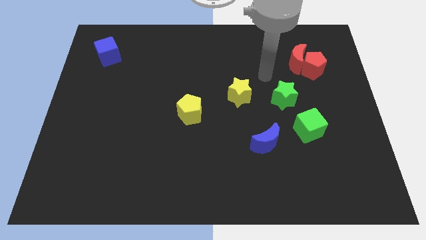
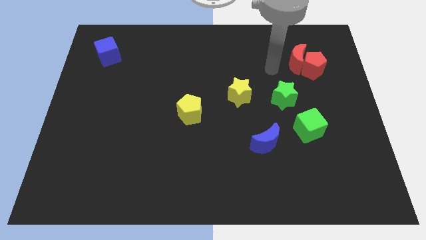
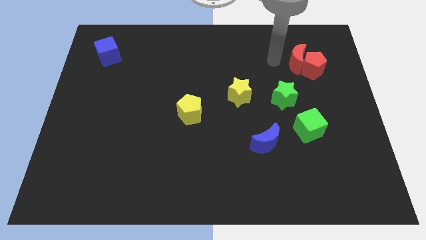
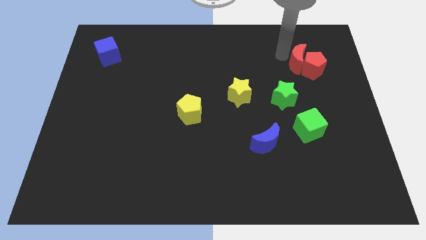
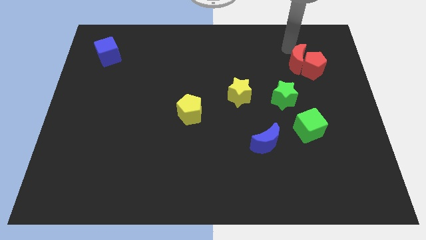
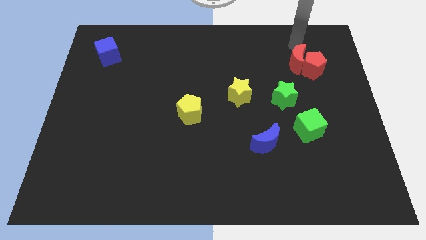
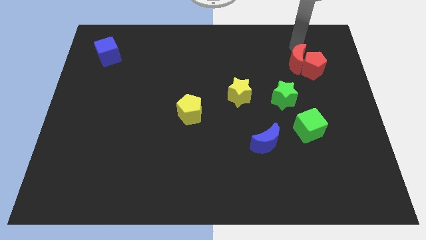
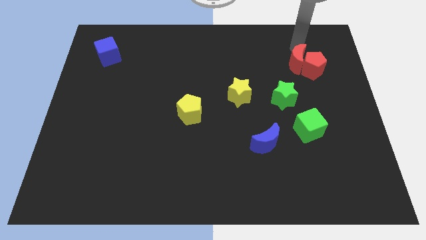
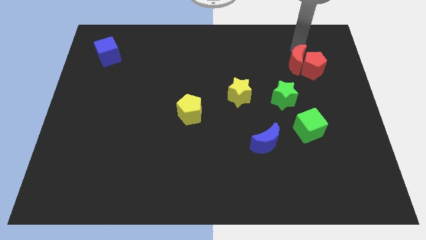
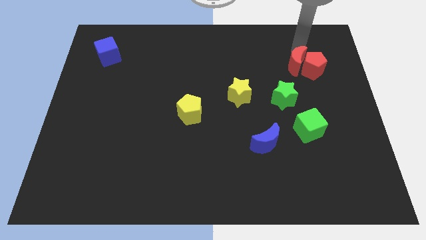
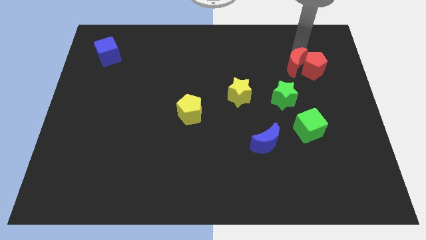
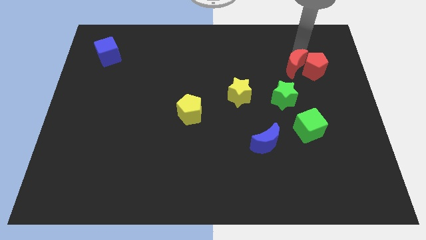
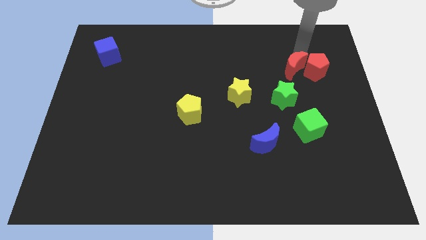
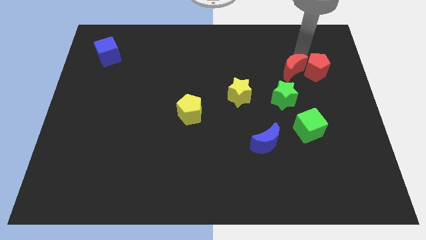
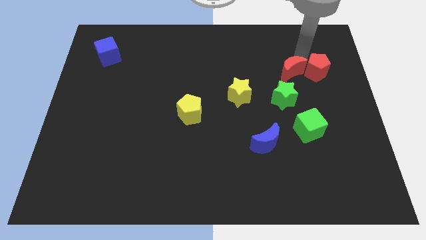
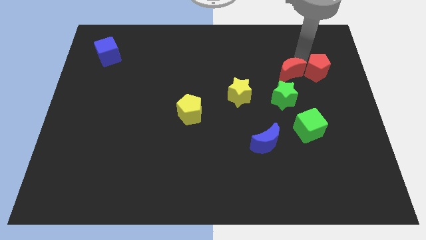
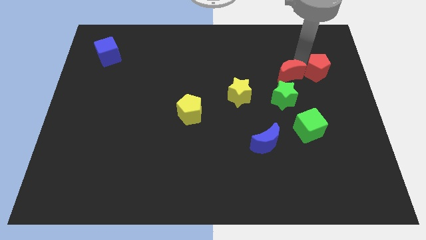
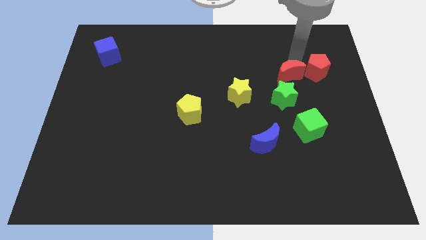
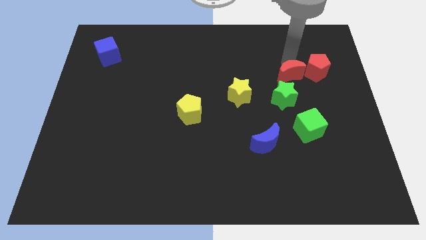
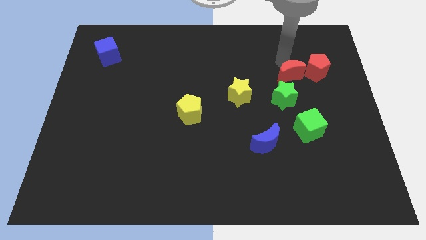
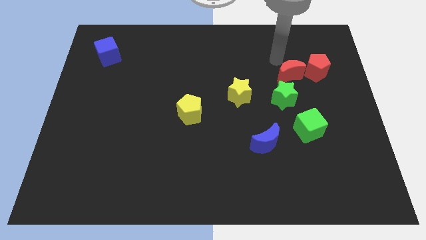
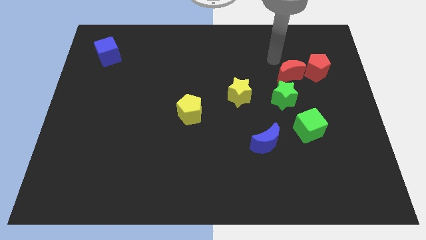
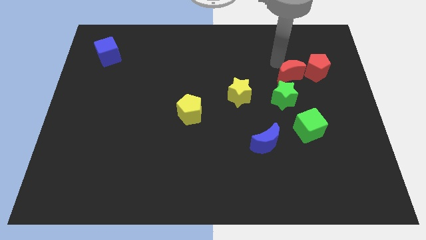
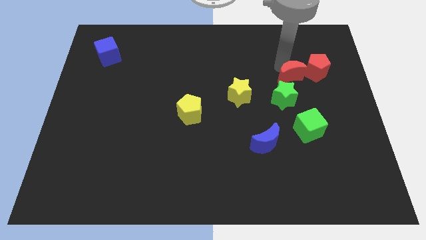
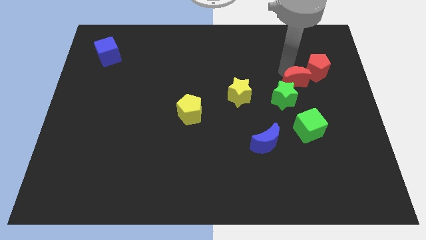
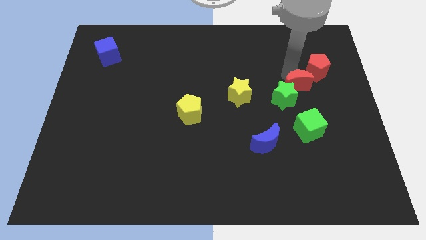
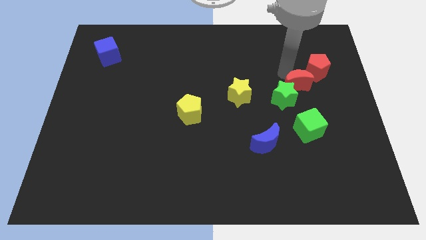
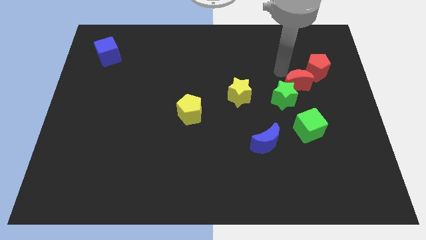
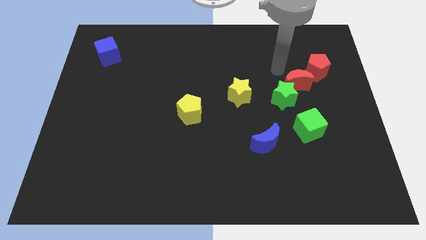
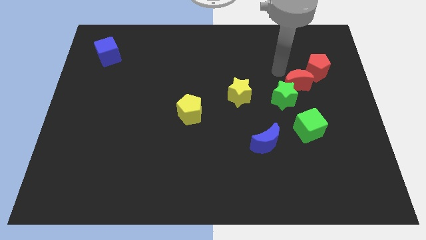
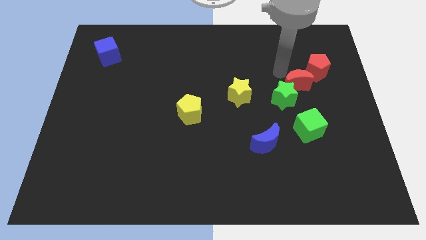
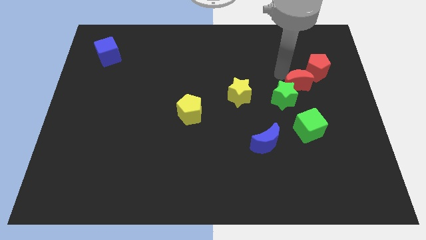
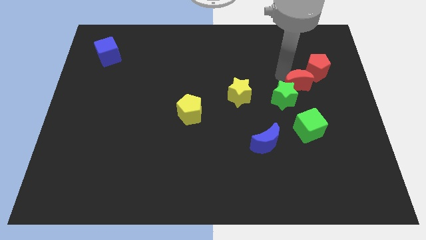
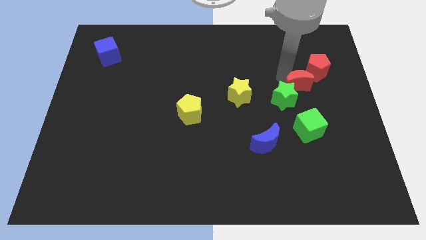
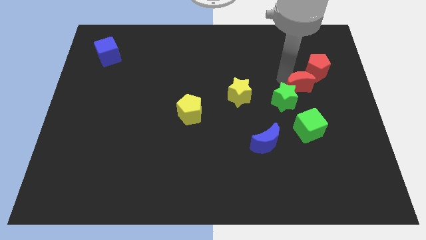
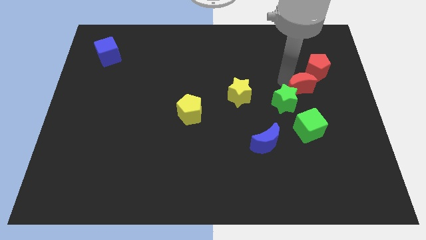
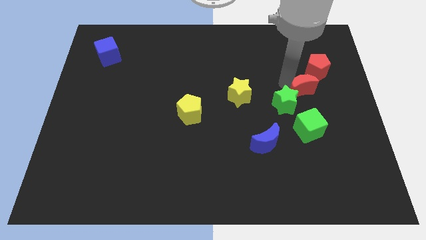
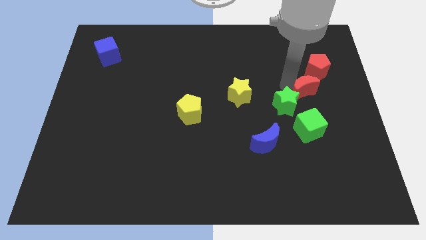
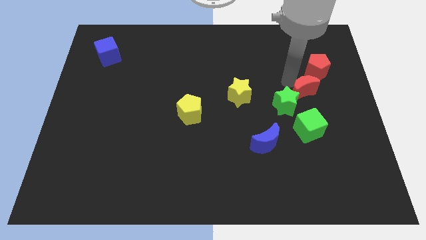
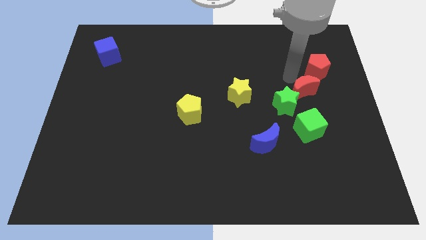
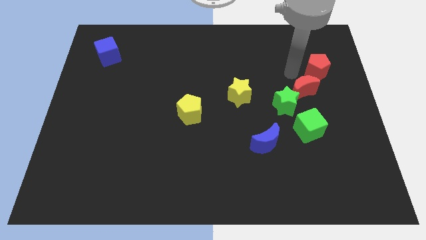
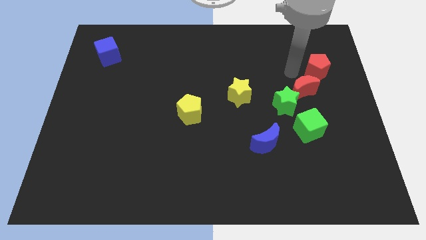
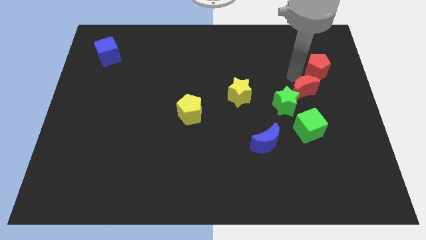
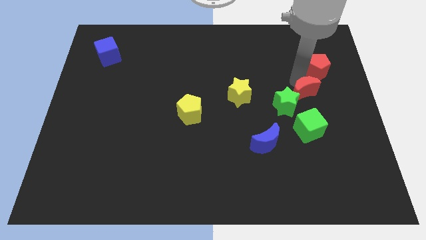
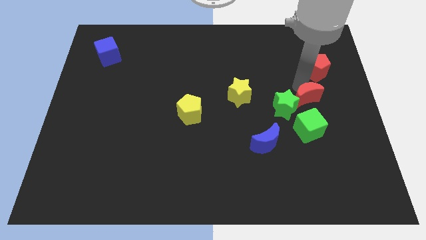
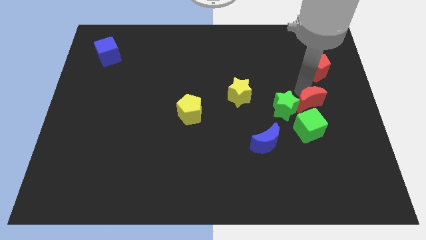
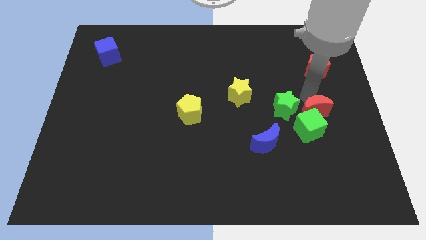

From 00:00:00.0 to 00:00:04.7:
put the red moon to the green cube

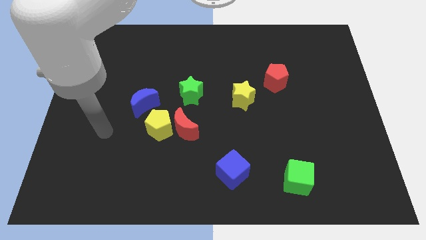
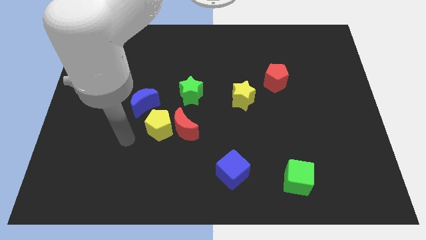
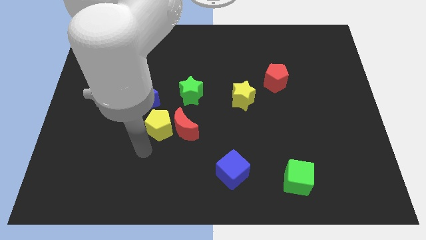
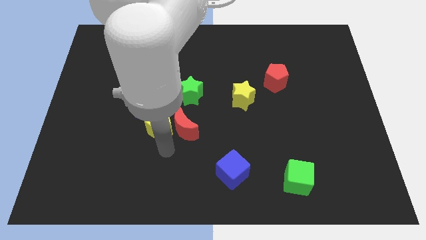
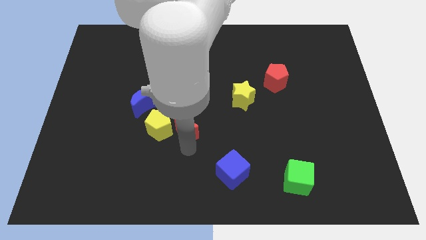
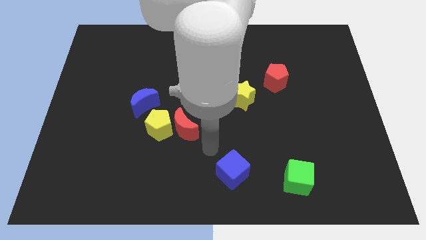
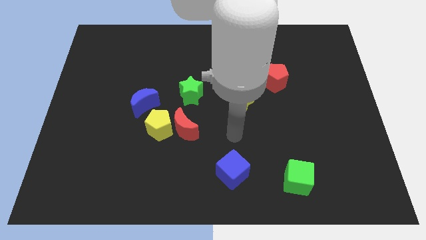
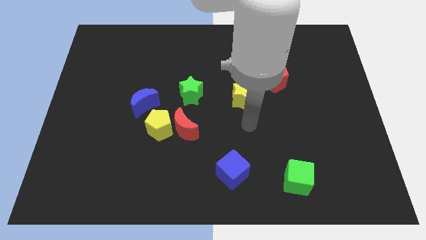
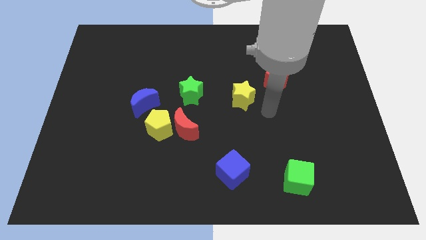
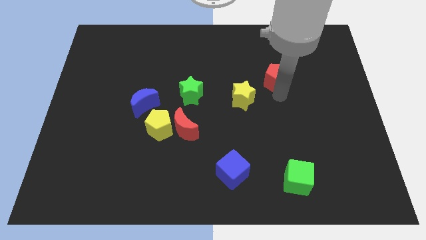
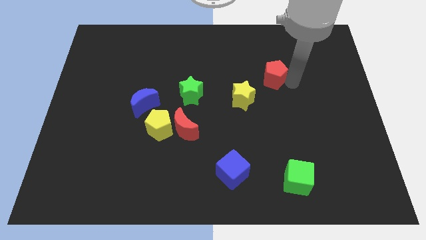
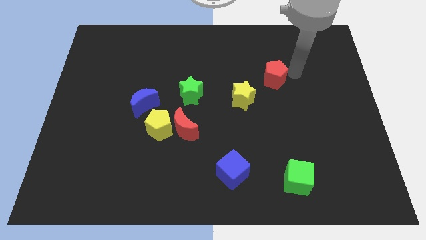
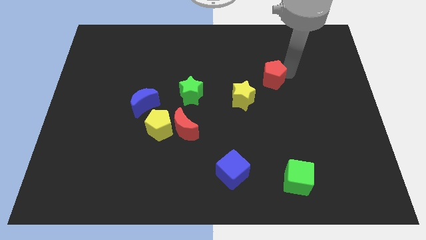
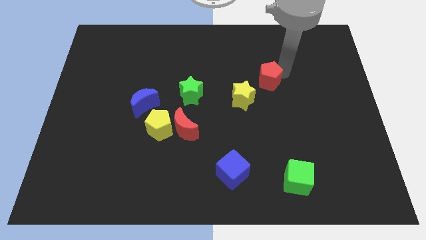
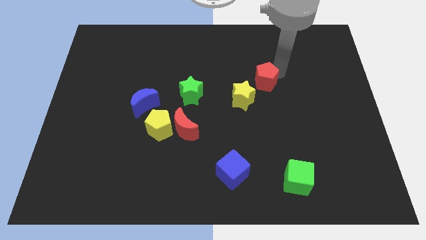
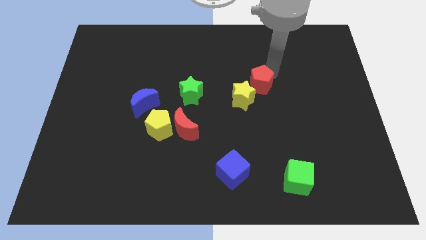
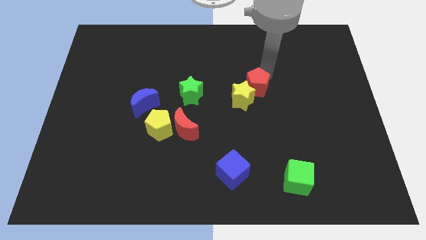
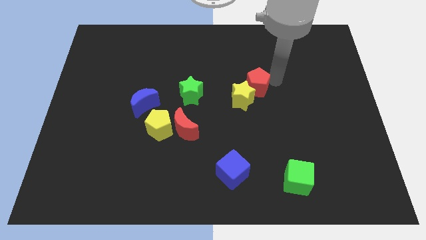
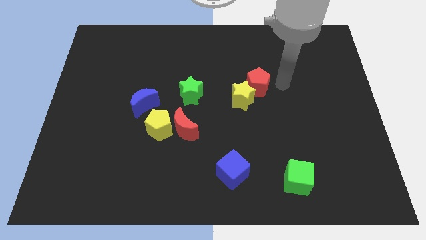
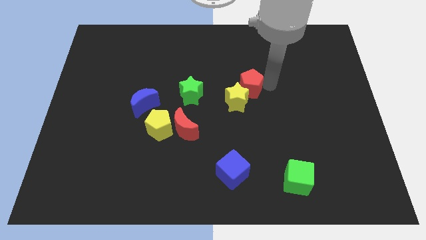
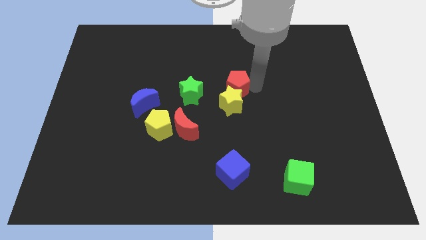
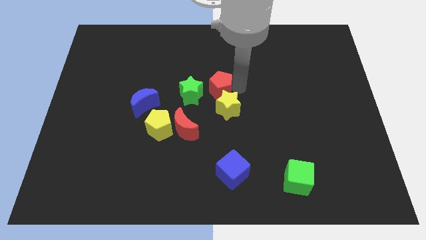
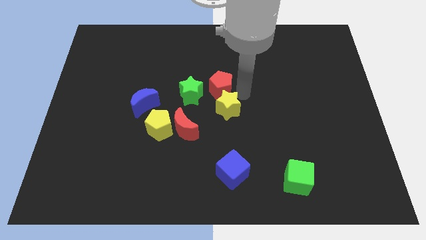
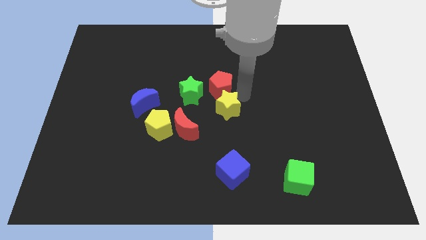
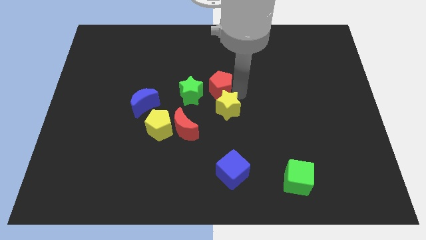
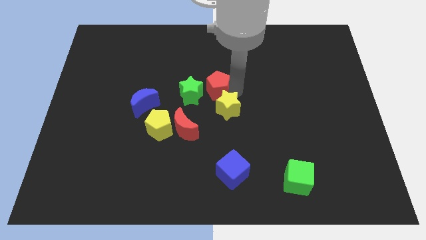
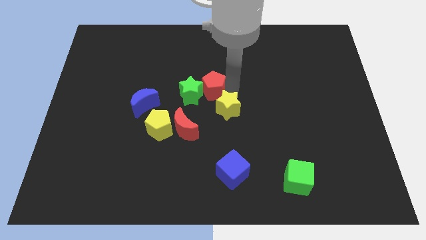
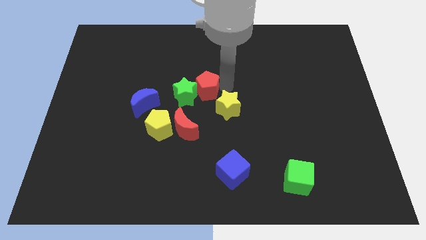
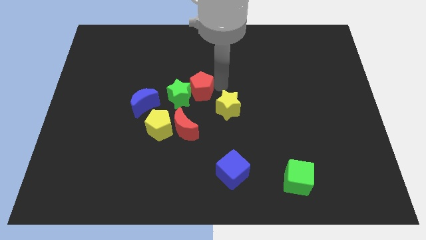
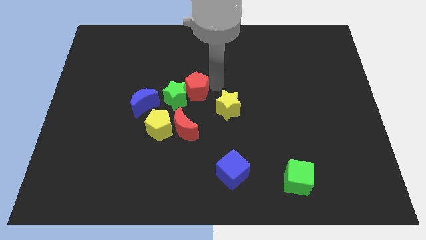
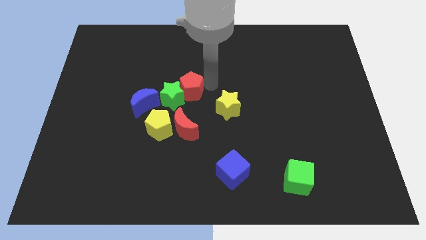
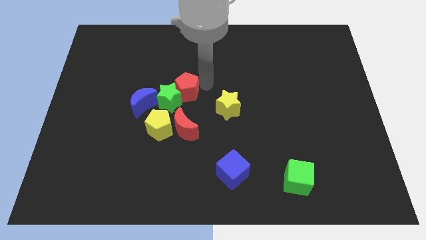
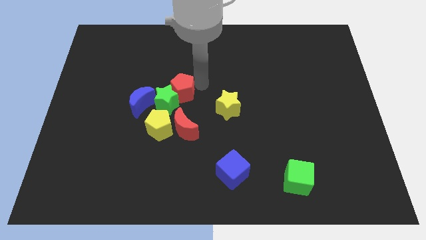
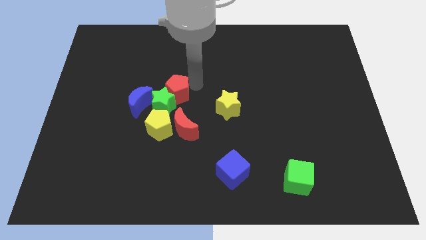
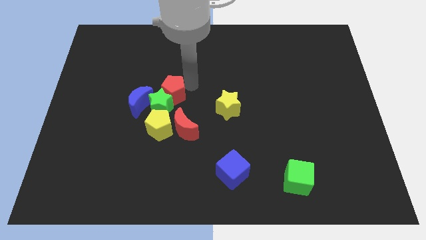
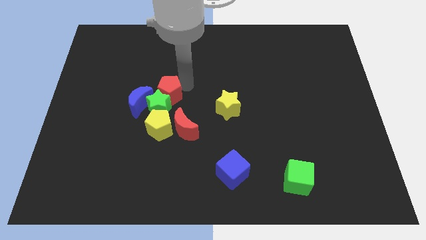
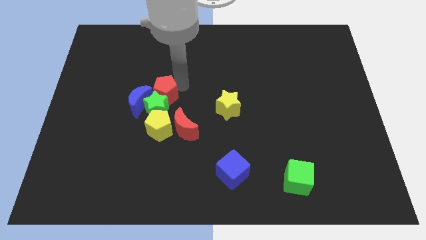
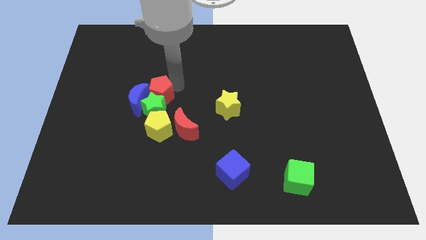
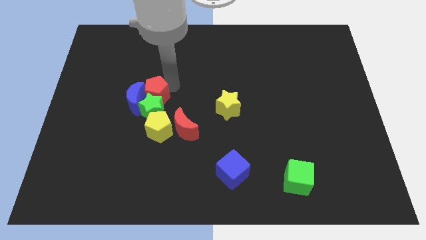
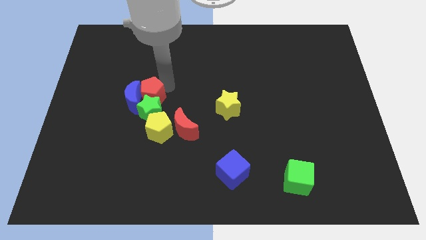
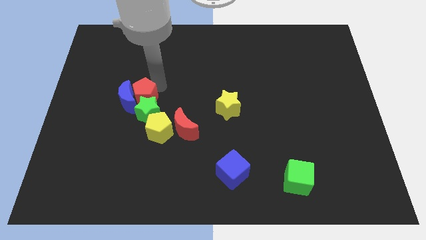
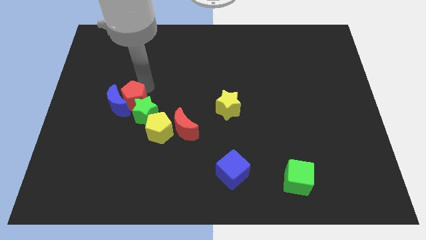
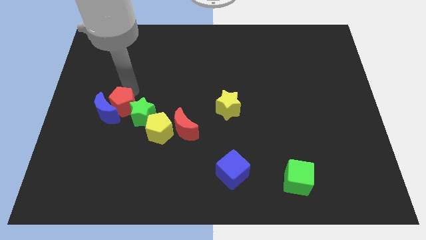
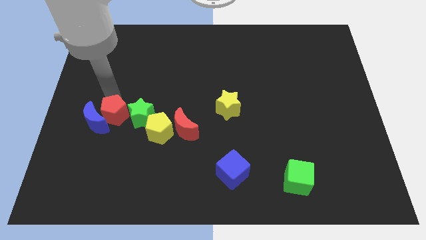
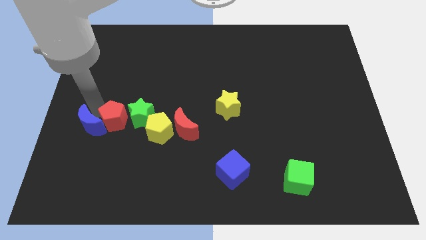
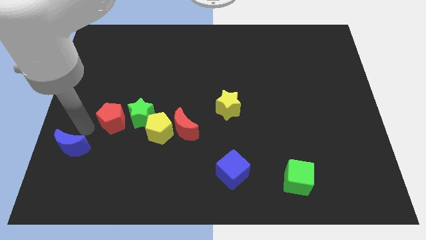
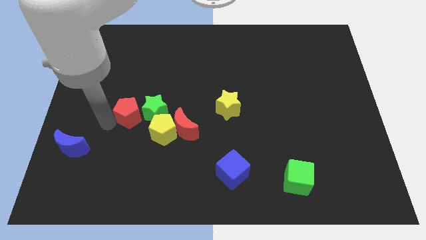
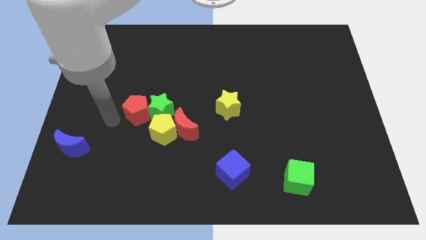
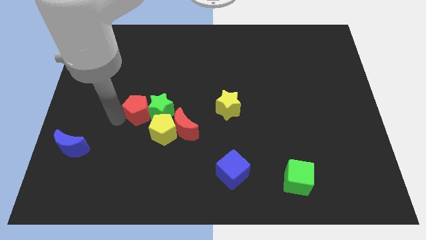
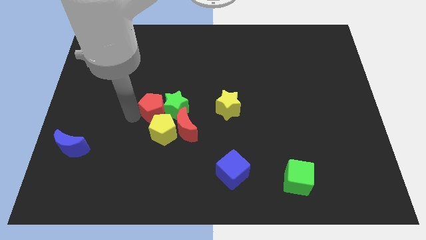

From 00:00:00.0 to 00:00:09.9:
put the red pentagon close to the yellow pentagon
